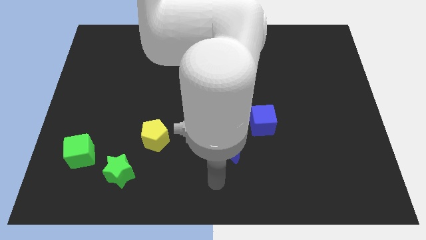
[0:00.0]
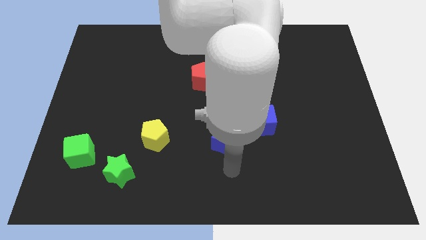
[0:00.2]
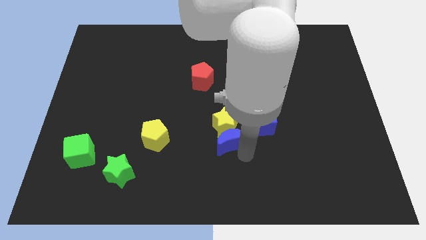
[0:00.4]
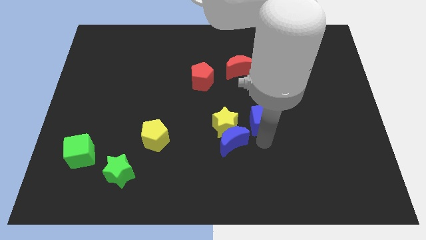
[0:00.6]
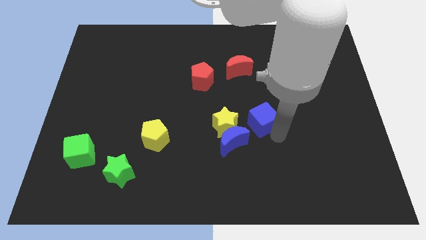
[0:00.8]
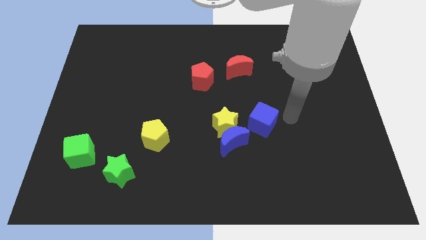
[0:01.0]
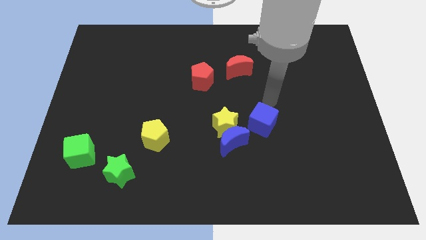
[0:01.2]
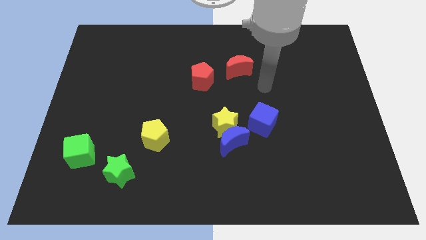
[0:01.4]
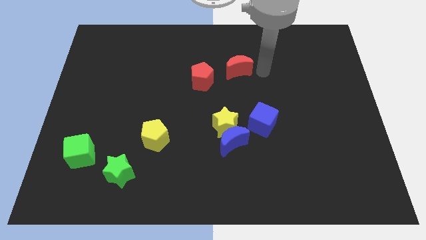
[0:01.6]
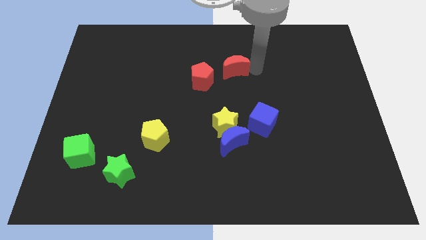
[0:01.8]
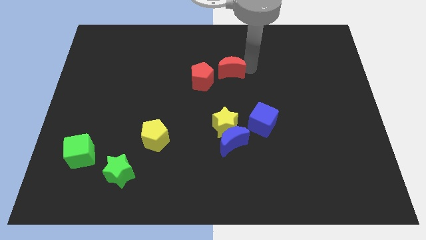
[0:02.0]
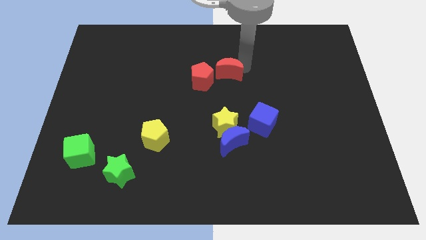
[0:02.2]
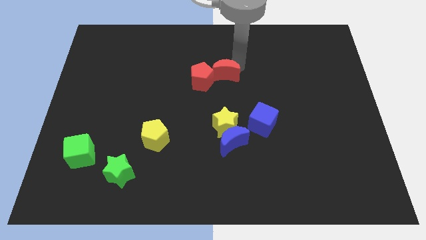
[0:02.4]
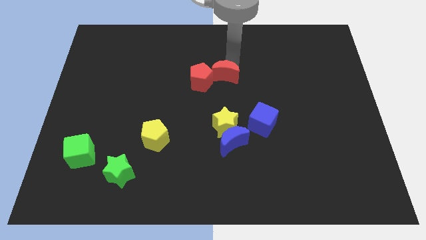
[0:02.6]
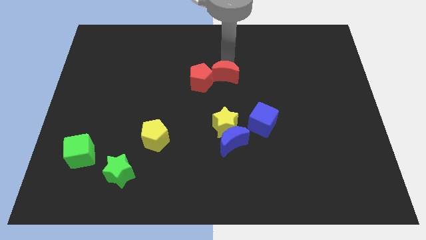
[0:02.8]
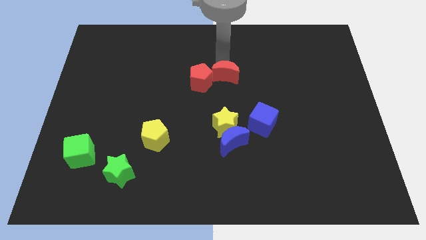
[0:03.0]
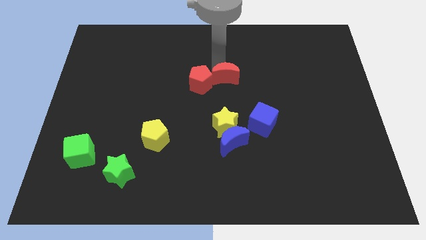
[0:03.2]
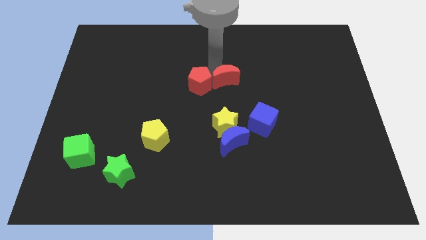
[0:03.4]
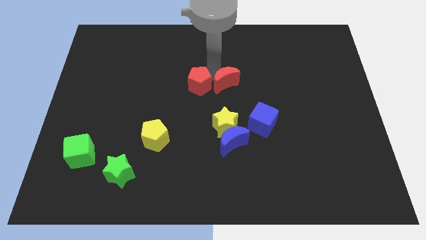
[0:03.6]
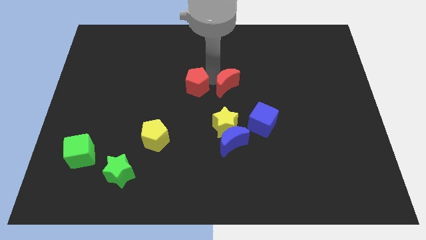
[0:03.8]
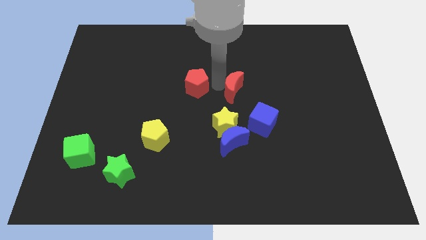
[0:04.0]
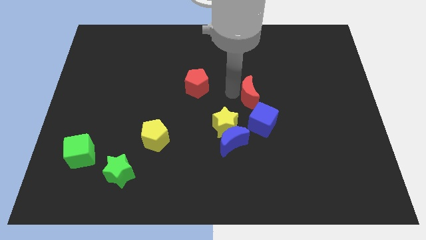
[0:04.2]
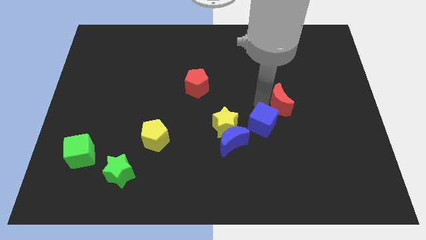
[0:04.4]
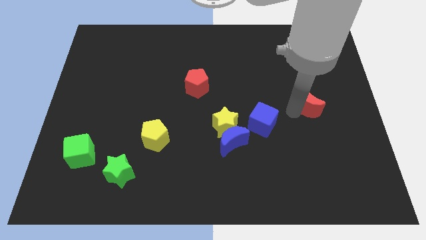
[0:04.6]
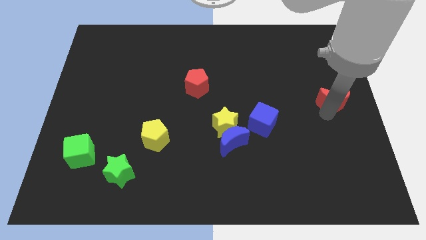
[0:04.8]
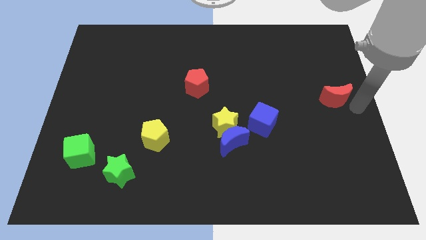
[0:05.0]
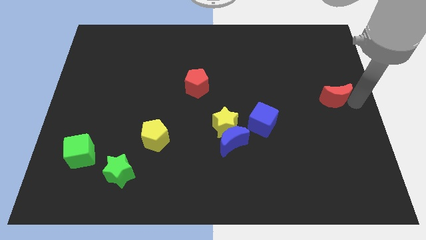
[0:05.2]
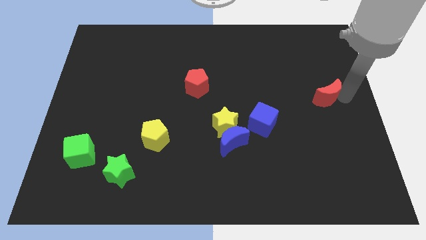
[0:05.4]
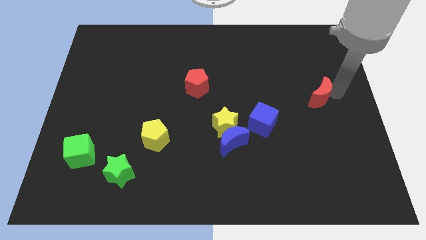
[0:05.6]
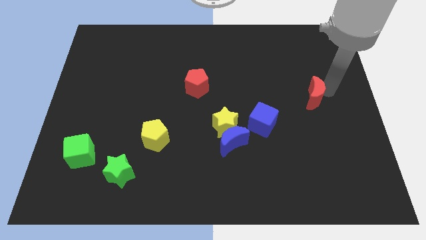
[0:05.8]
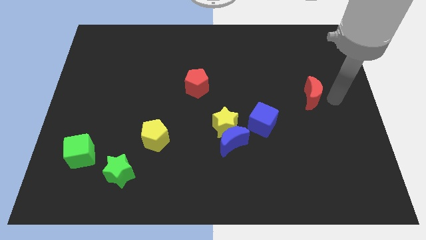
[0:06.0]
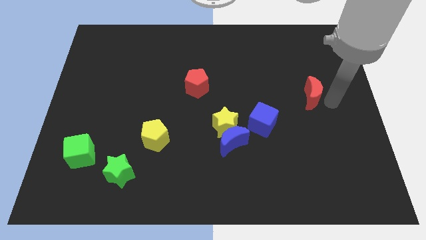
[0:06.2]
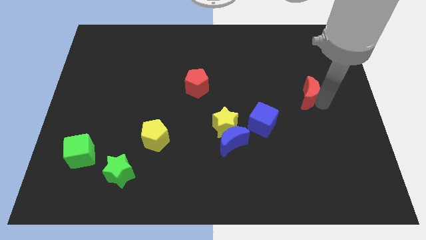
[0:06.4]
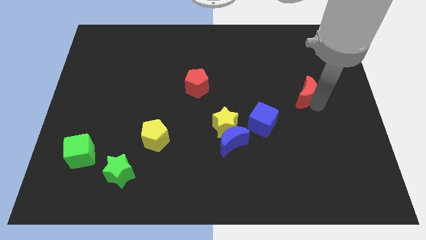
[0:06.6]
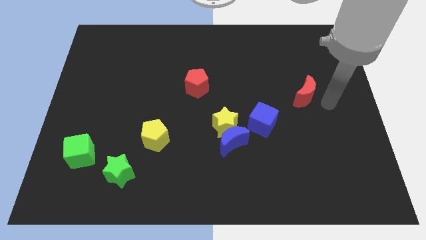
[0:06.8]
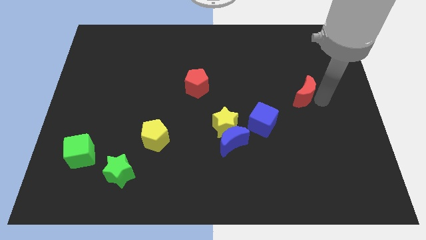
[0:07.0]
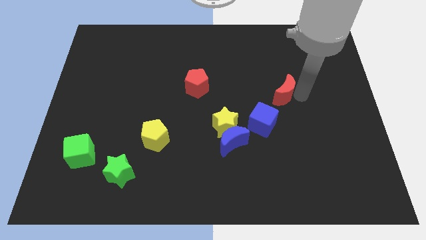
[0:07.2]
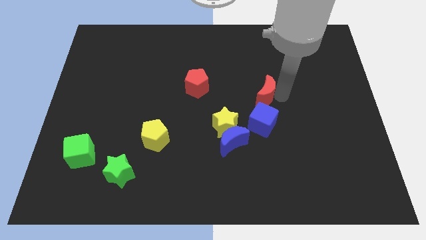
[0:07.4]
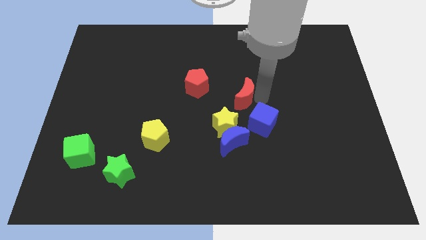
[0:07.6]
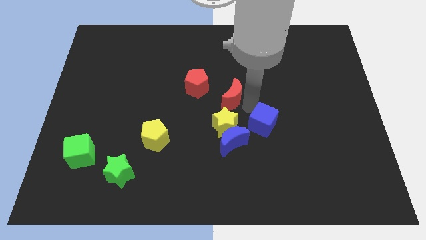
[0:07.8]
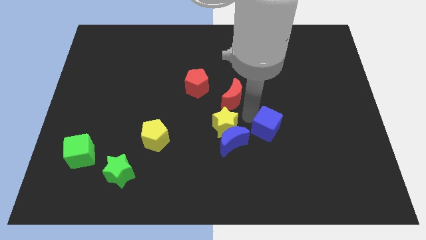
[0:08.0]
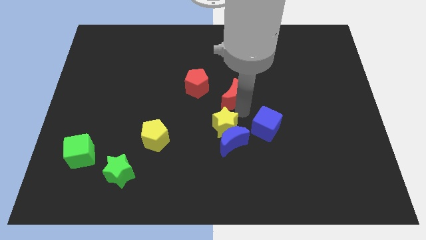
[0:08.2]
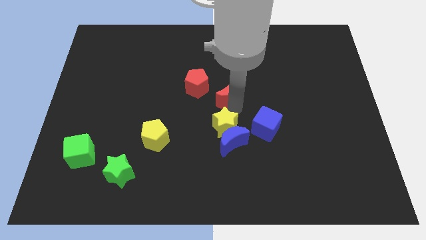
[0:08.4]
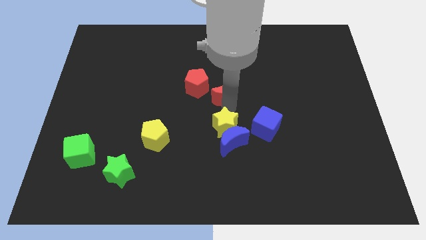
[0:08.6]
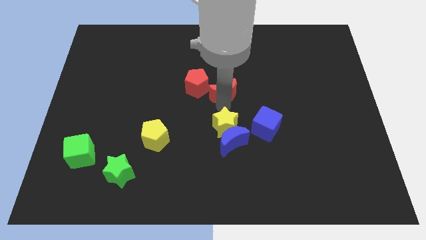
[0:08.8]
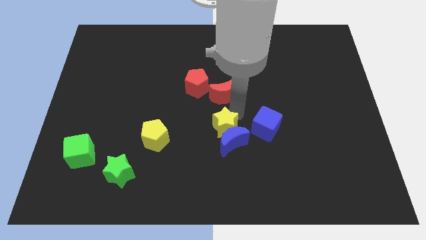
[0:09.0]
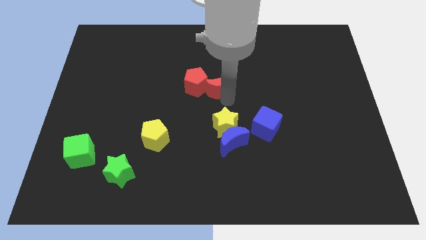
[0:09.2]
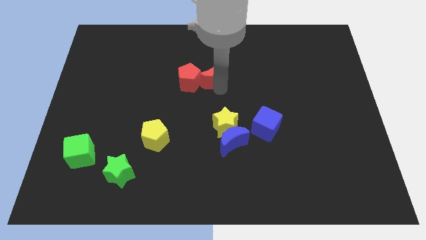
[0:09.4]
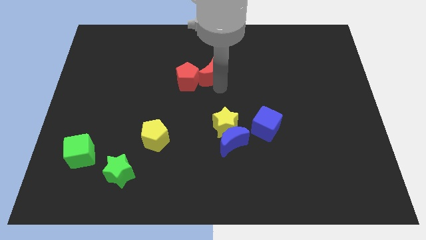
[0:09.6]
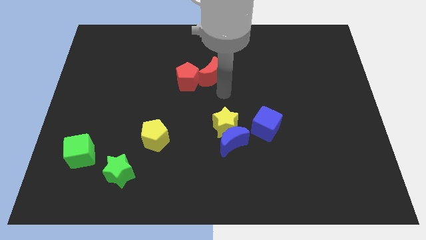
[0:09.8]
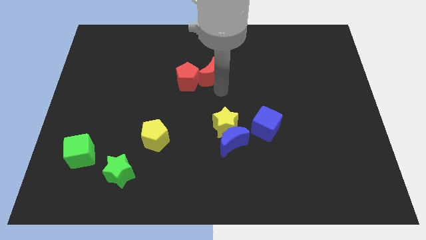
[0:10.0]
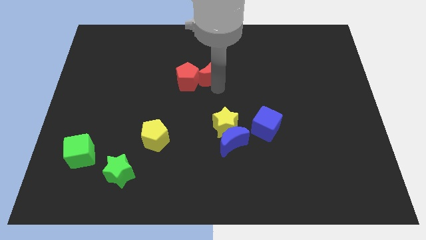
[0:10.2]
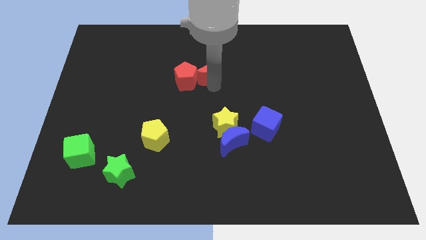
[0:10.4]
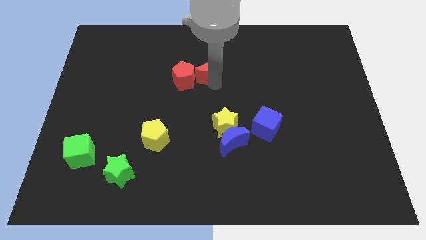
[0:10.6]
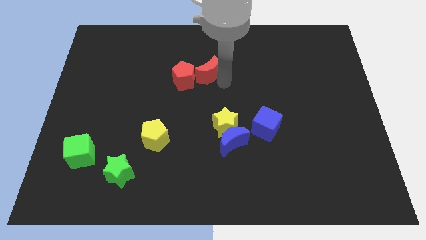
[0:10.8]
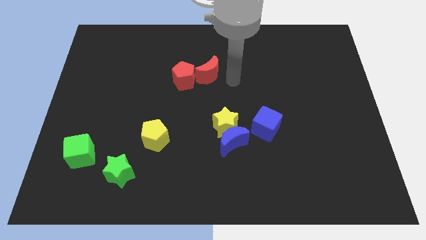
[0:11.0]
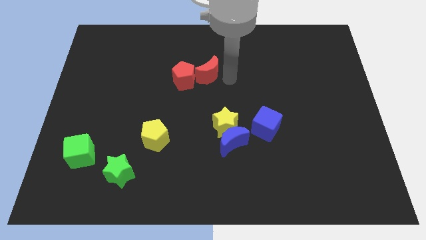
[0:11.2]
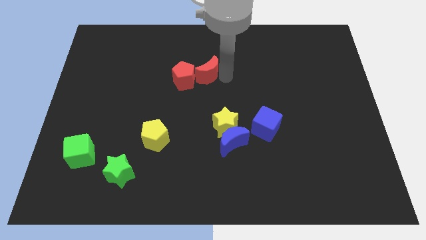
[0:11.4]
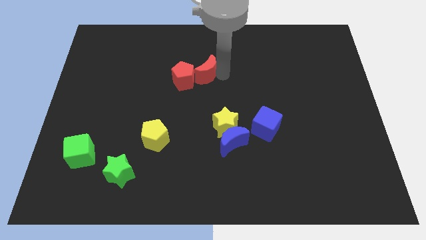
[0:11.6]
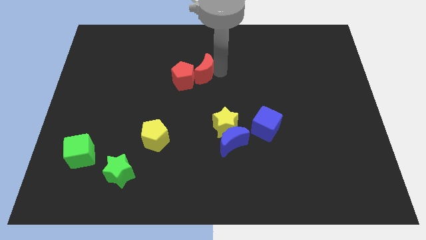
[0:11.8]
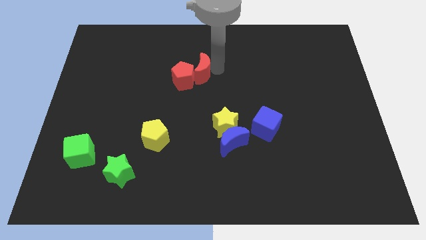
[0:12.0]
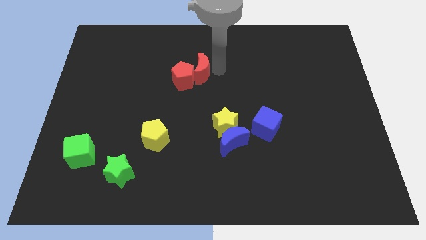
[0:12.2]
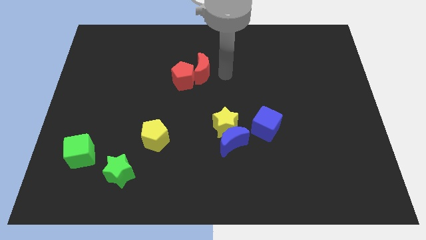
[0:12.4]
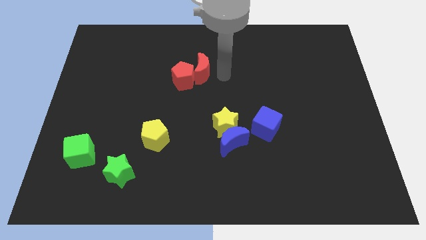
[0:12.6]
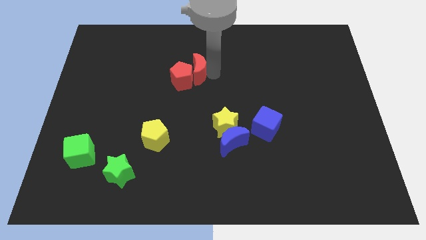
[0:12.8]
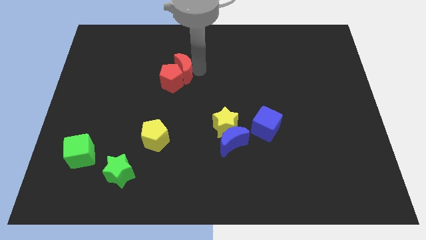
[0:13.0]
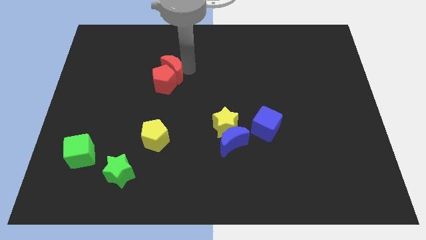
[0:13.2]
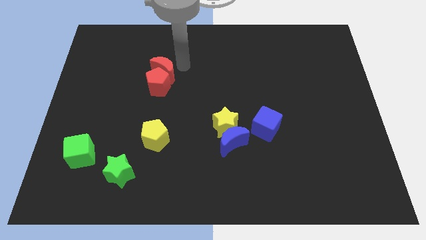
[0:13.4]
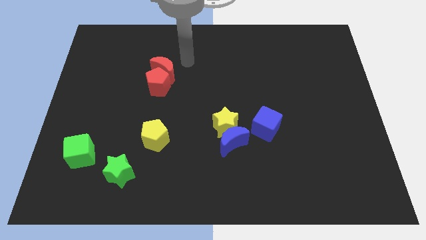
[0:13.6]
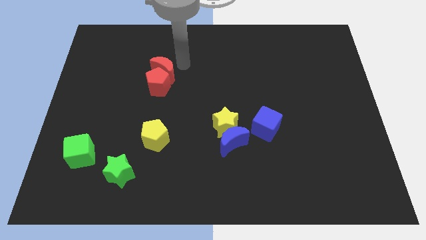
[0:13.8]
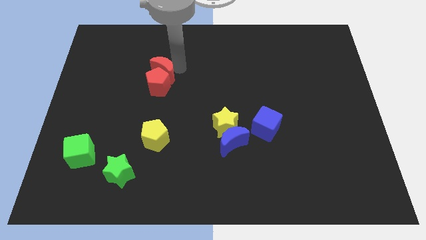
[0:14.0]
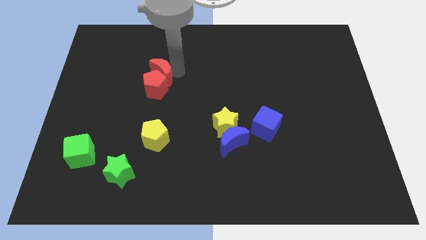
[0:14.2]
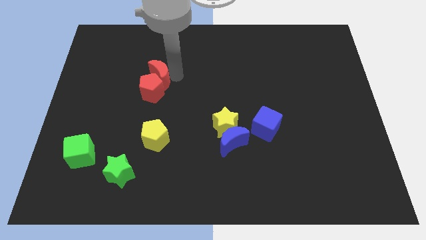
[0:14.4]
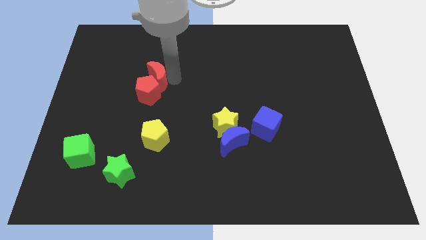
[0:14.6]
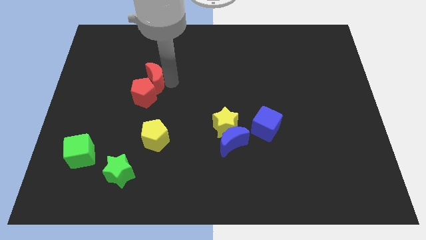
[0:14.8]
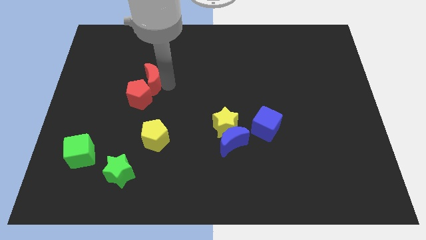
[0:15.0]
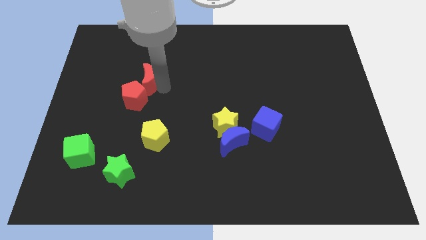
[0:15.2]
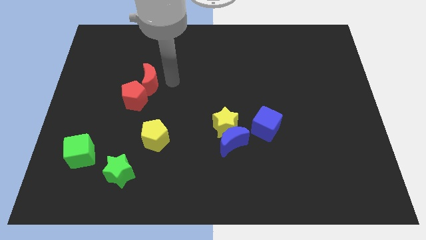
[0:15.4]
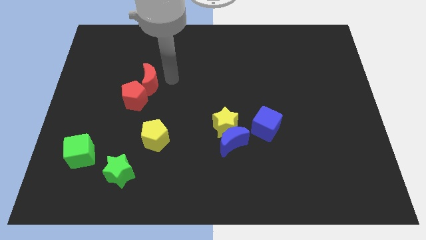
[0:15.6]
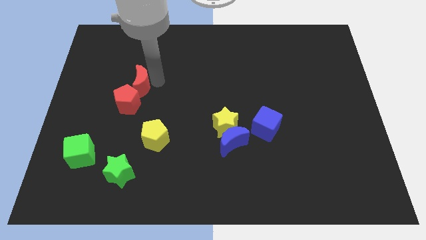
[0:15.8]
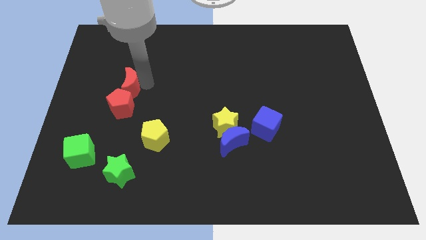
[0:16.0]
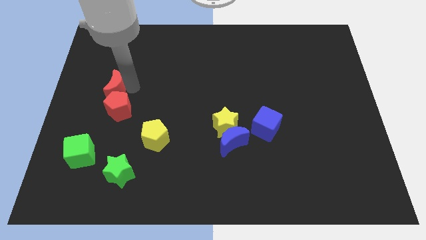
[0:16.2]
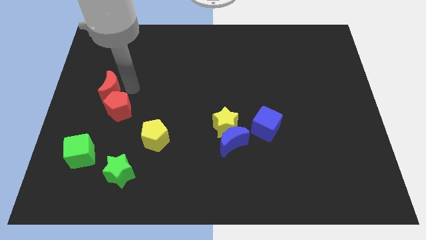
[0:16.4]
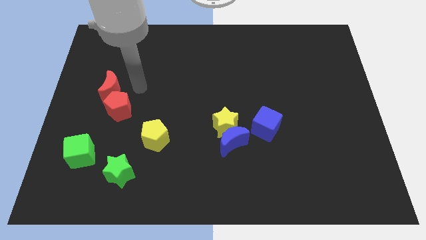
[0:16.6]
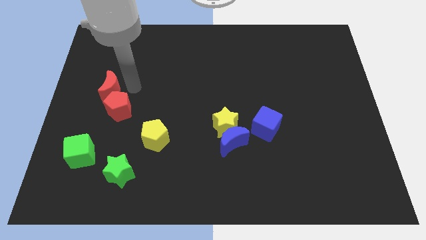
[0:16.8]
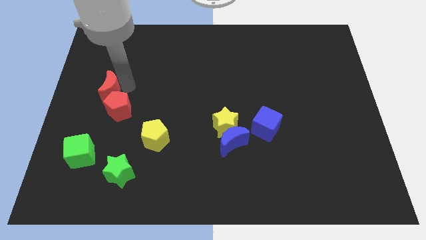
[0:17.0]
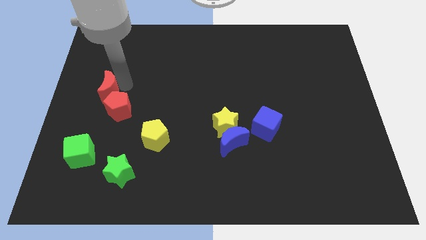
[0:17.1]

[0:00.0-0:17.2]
put the red moon to the center left
